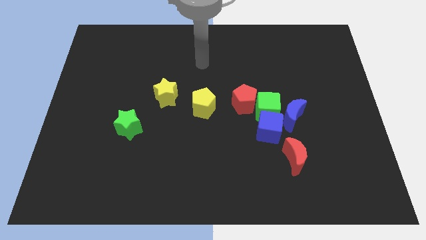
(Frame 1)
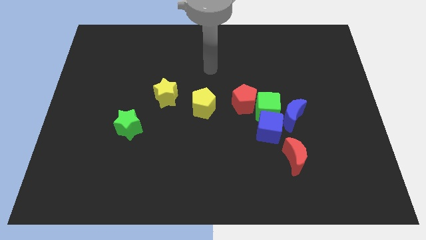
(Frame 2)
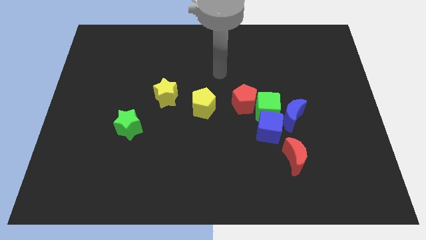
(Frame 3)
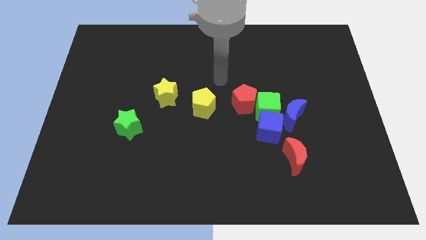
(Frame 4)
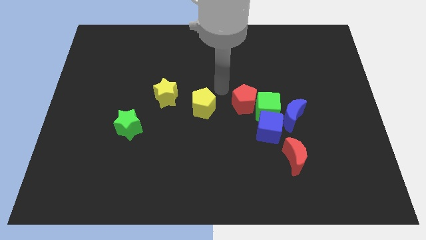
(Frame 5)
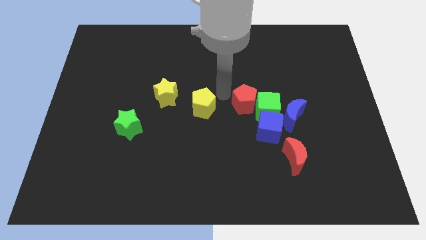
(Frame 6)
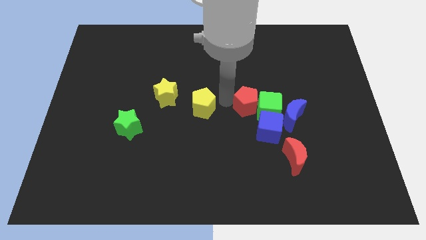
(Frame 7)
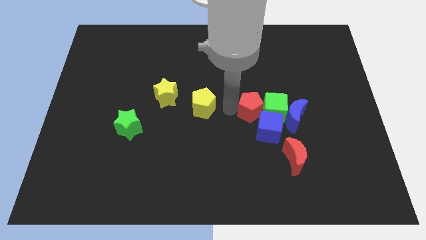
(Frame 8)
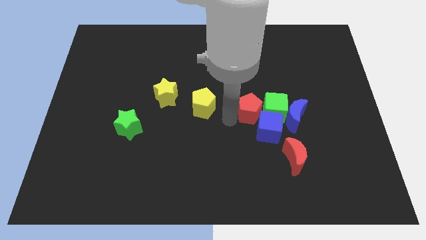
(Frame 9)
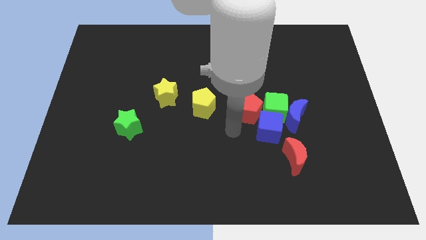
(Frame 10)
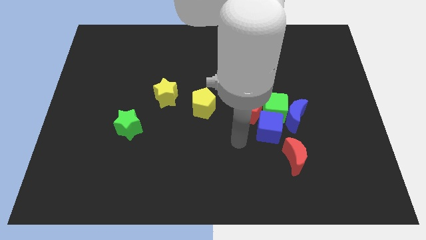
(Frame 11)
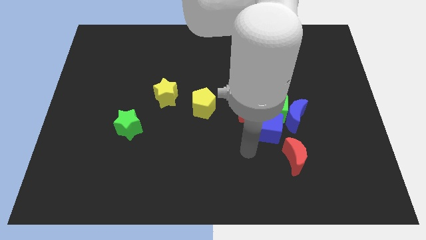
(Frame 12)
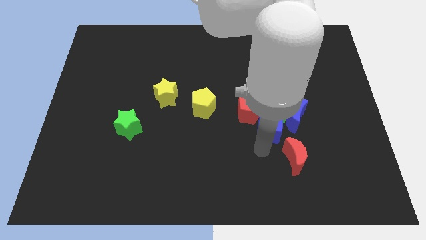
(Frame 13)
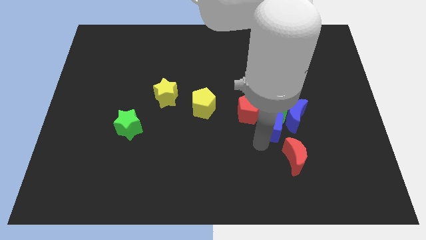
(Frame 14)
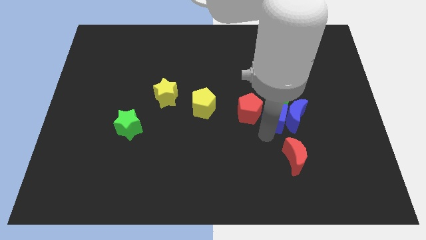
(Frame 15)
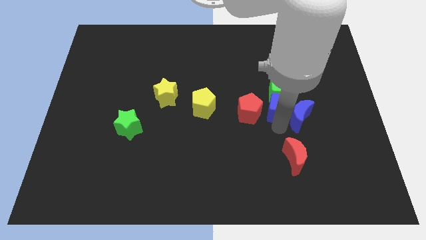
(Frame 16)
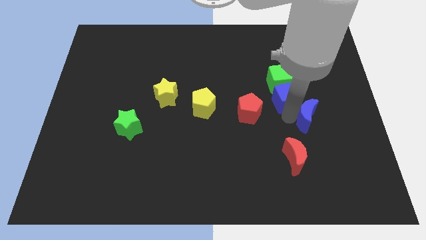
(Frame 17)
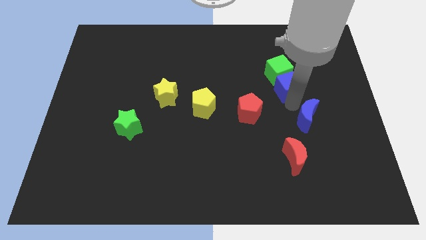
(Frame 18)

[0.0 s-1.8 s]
pull the green cube apart from the red pentagon, blue cube, and blue moon

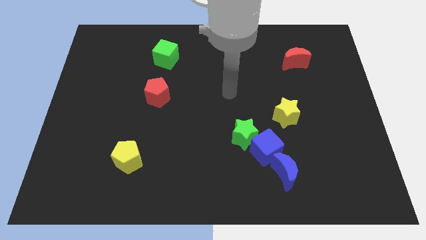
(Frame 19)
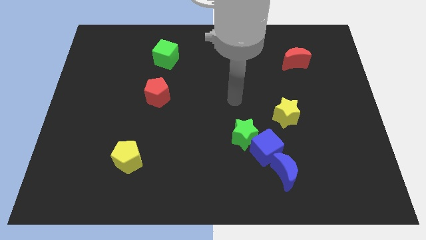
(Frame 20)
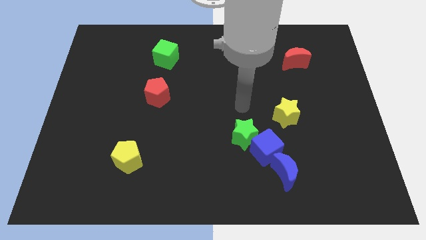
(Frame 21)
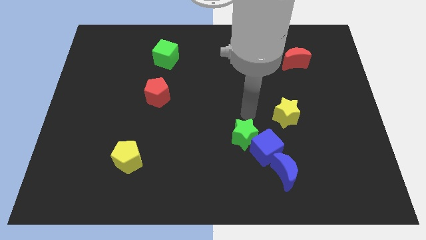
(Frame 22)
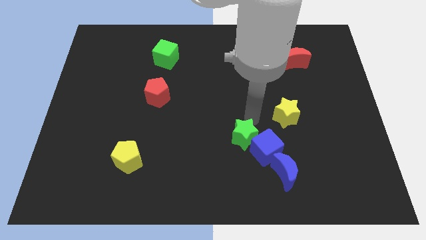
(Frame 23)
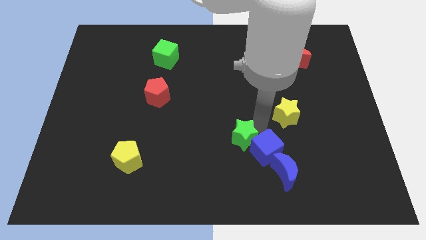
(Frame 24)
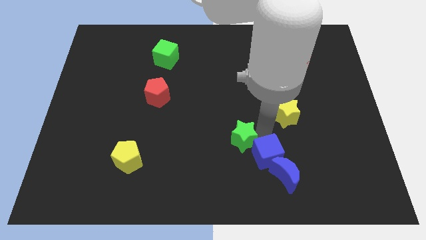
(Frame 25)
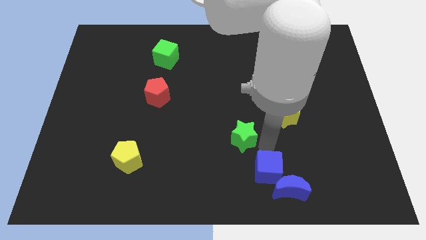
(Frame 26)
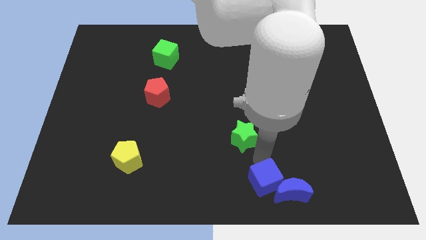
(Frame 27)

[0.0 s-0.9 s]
move the green star away from the blue cube

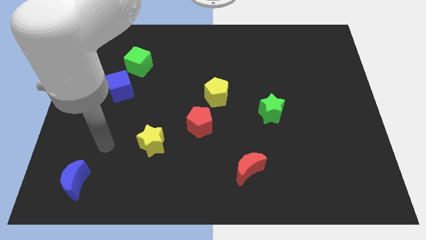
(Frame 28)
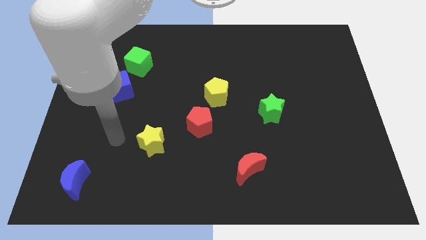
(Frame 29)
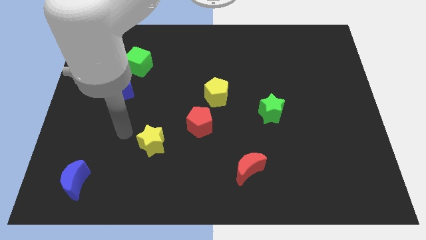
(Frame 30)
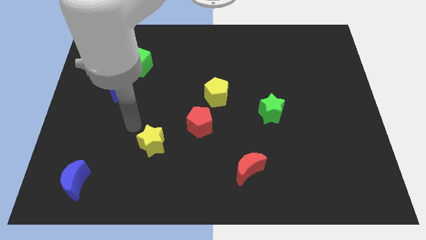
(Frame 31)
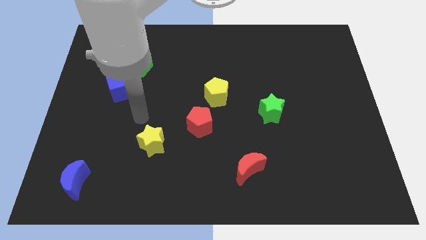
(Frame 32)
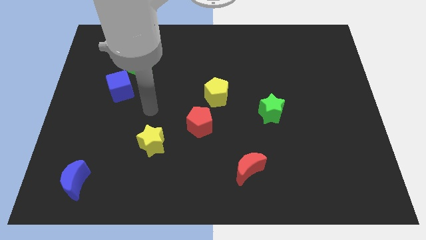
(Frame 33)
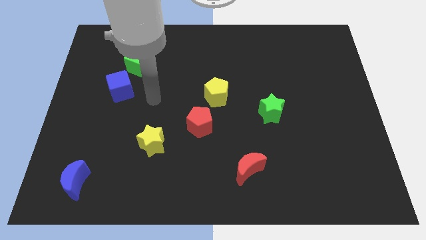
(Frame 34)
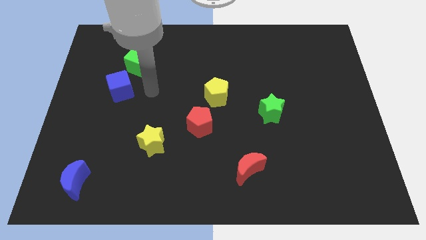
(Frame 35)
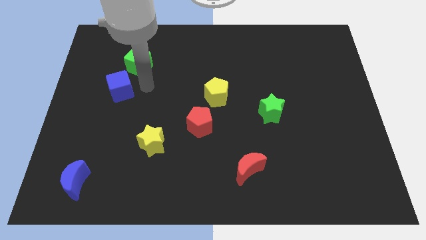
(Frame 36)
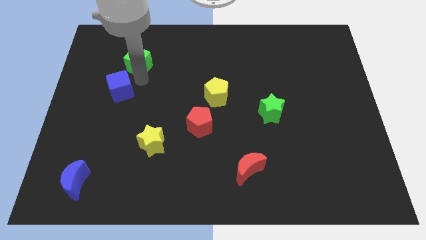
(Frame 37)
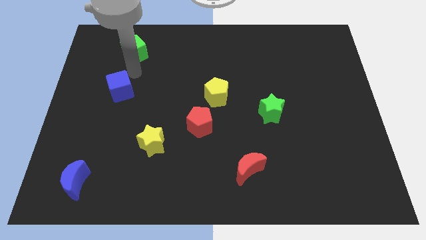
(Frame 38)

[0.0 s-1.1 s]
separate the blue cube from the green cube

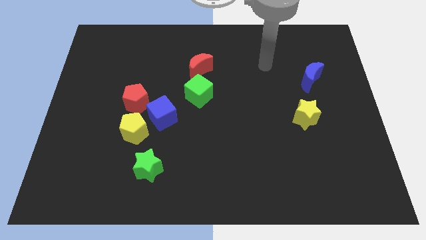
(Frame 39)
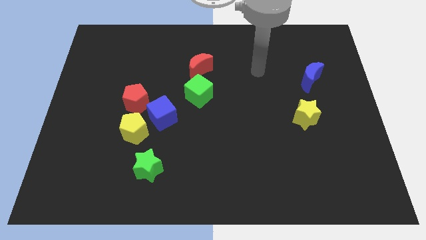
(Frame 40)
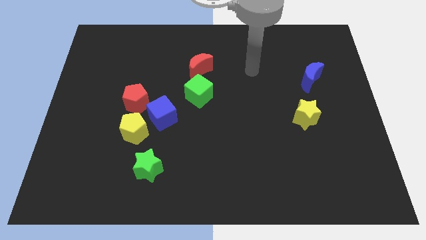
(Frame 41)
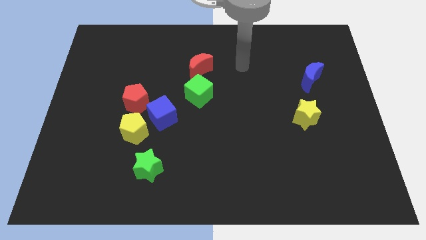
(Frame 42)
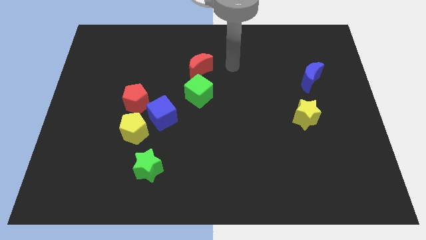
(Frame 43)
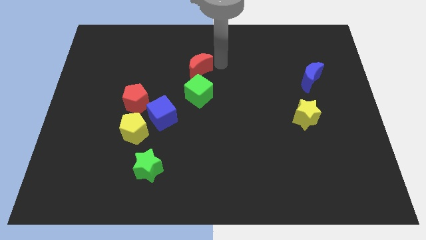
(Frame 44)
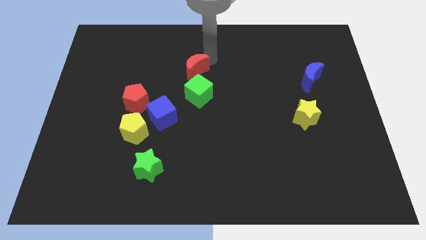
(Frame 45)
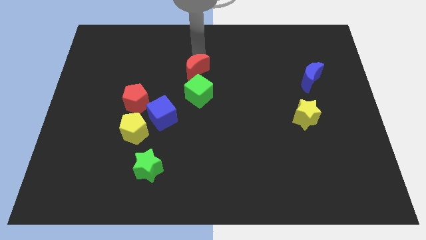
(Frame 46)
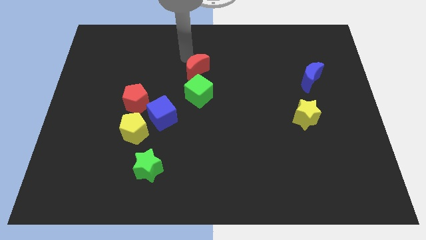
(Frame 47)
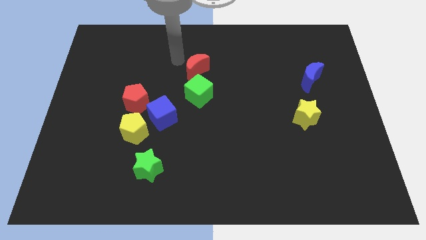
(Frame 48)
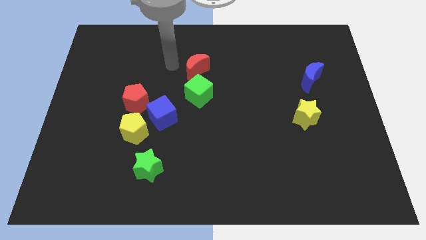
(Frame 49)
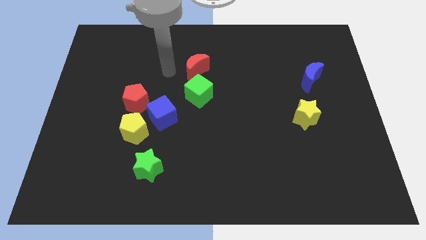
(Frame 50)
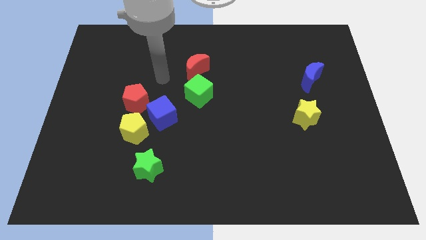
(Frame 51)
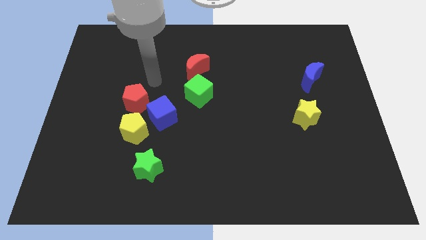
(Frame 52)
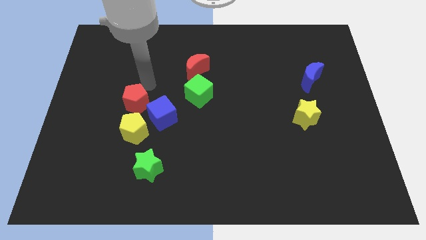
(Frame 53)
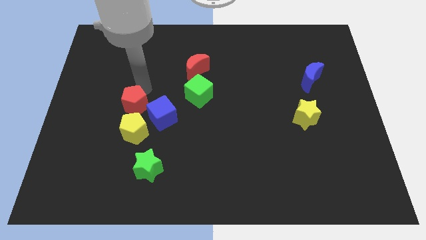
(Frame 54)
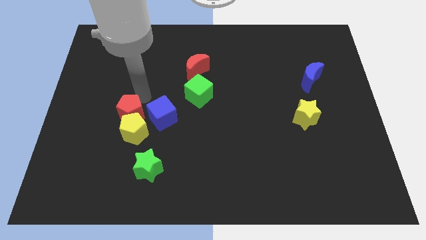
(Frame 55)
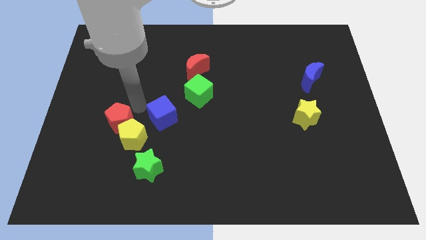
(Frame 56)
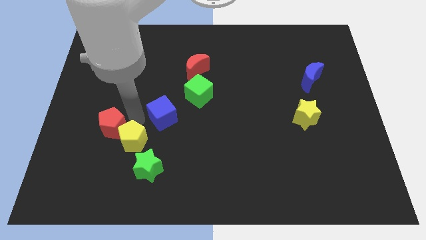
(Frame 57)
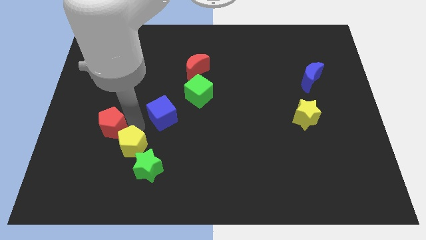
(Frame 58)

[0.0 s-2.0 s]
pull the blue cube apart from the yellow pentagon and red pentagon

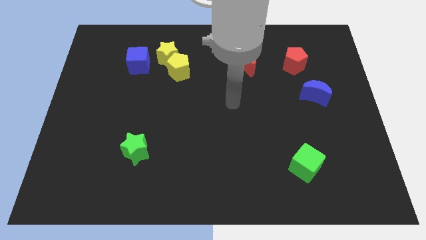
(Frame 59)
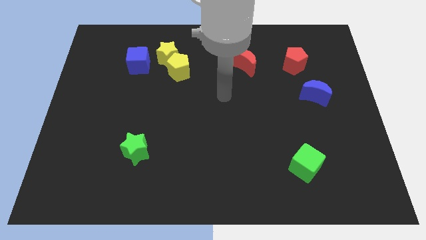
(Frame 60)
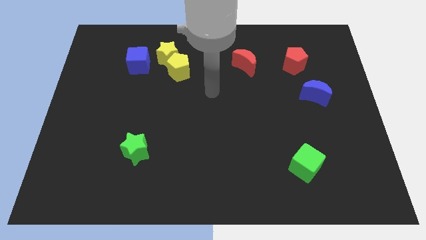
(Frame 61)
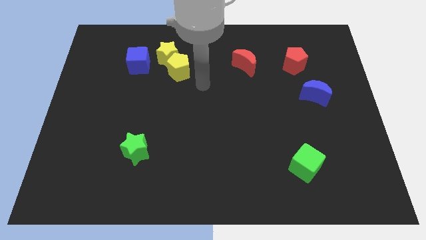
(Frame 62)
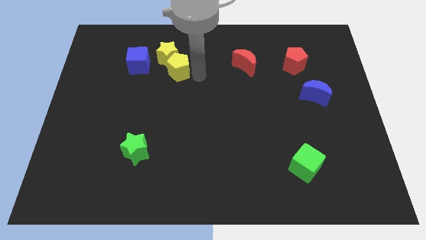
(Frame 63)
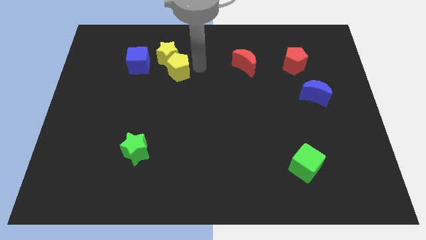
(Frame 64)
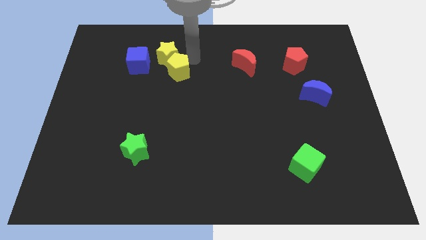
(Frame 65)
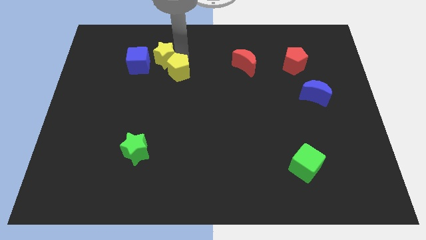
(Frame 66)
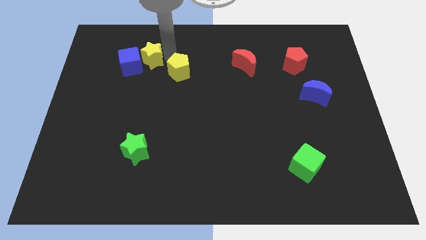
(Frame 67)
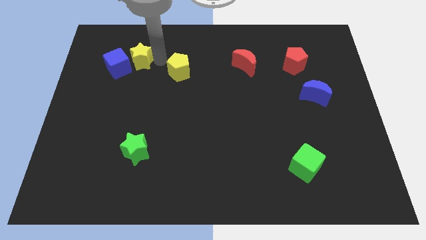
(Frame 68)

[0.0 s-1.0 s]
pull the yellow pentagon apart from the yellow star

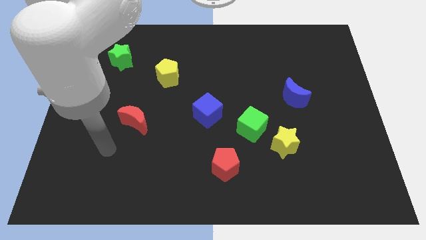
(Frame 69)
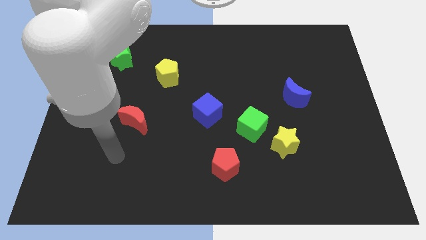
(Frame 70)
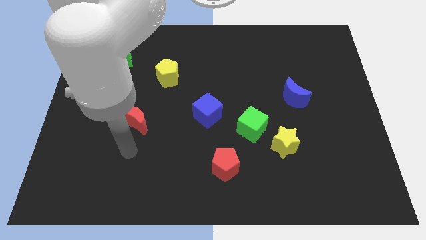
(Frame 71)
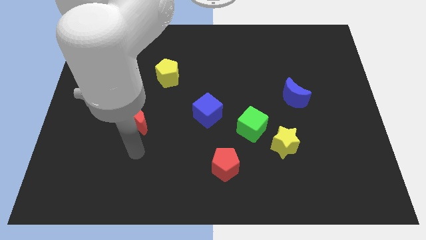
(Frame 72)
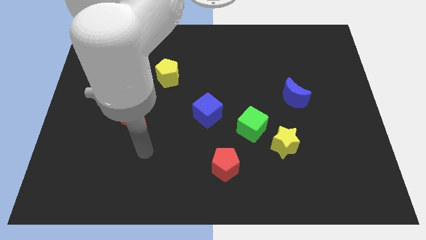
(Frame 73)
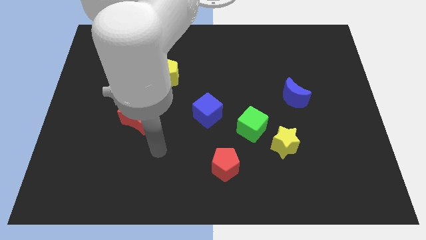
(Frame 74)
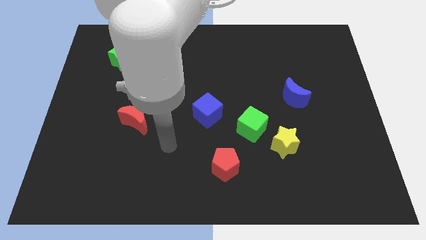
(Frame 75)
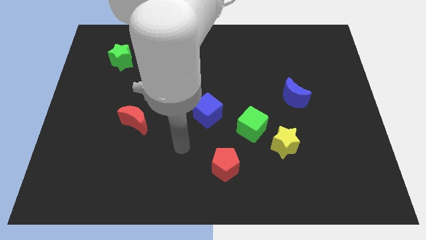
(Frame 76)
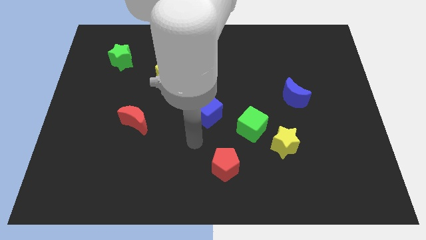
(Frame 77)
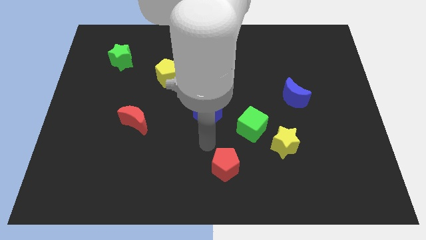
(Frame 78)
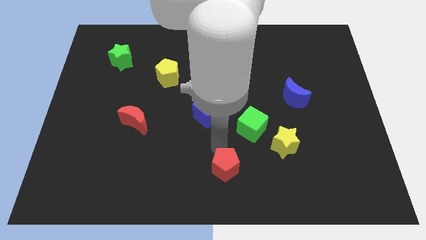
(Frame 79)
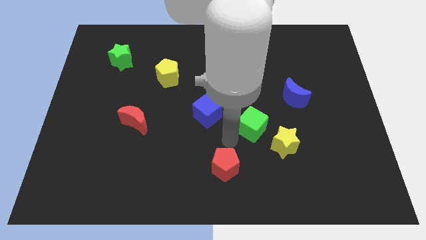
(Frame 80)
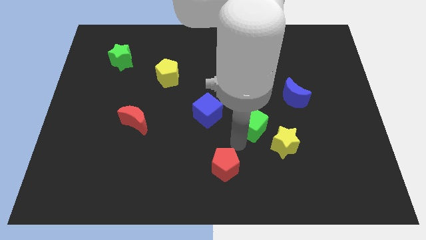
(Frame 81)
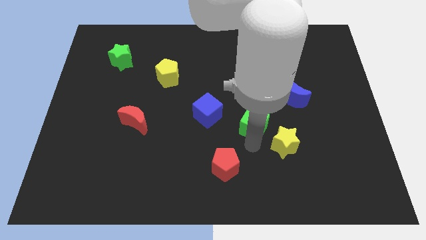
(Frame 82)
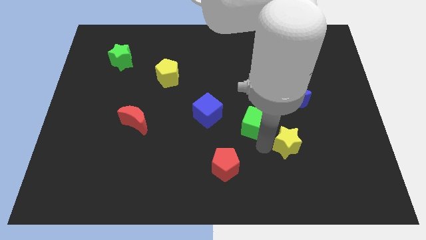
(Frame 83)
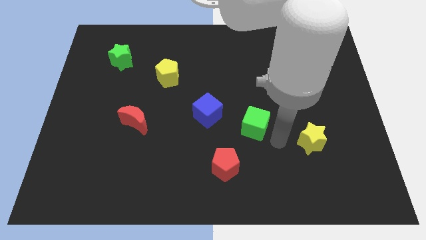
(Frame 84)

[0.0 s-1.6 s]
move the green cube away from the yellow star

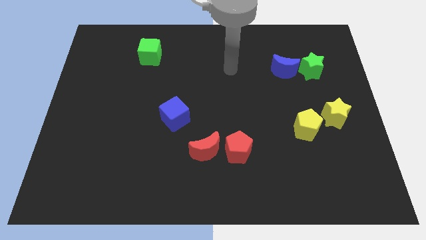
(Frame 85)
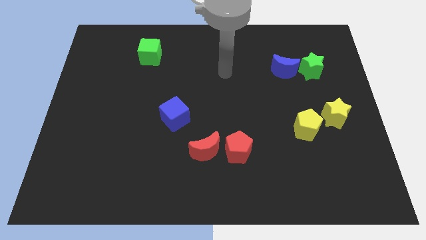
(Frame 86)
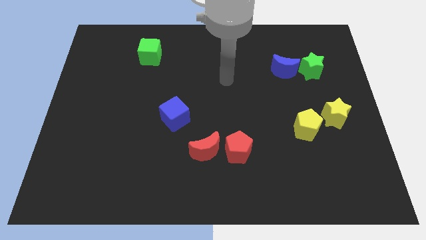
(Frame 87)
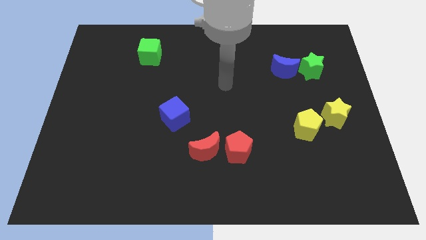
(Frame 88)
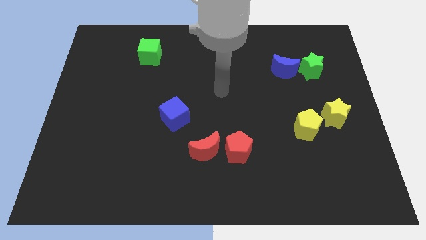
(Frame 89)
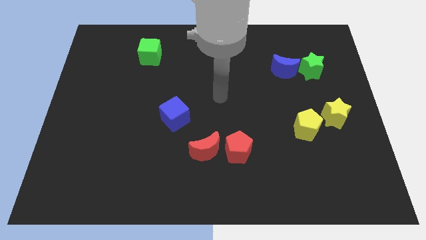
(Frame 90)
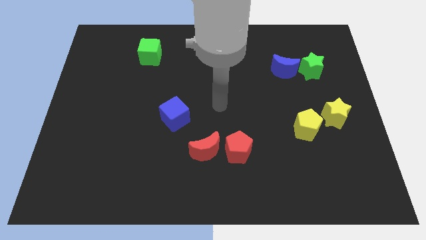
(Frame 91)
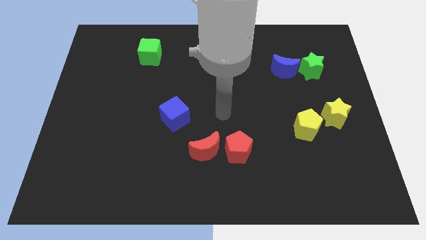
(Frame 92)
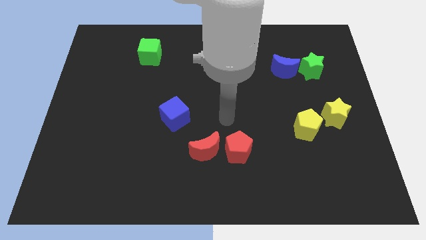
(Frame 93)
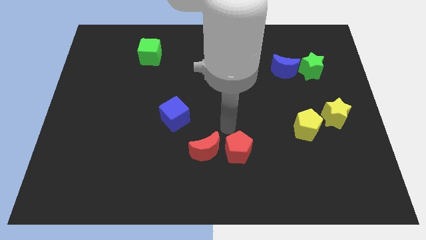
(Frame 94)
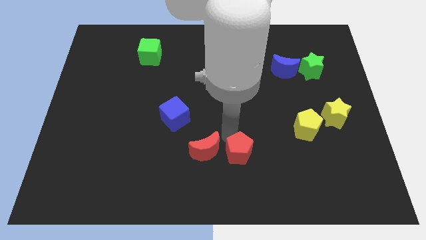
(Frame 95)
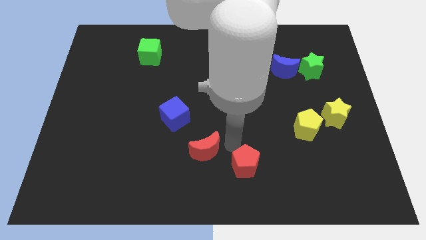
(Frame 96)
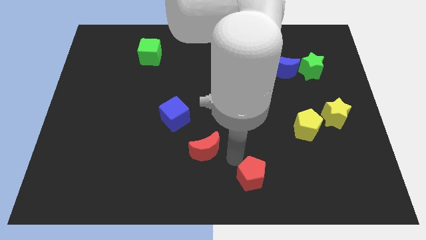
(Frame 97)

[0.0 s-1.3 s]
pull the red moon apart from the red pentagon
